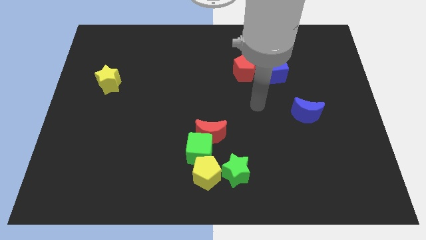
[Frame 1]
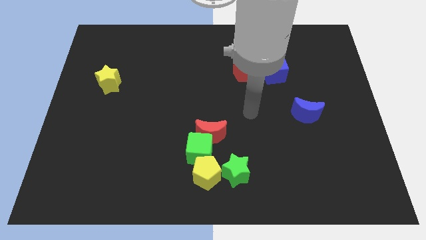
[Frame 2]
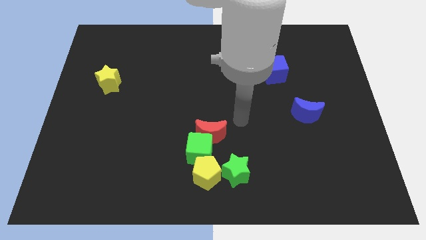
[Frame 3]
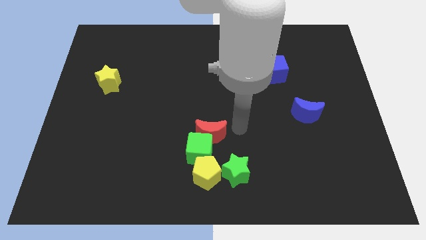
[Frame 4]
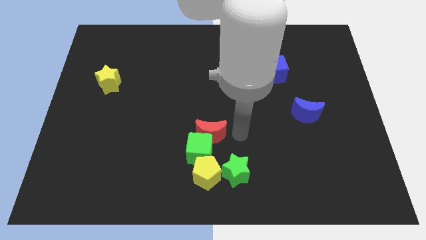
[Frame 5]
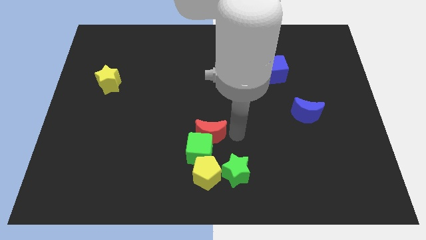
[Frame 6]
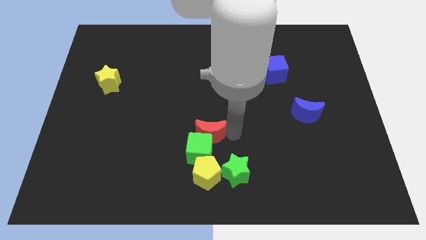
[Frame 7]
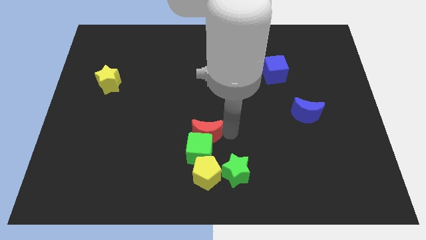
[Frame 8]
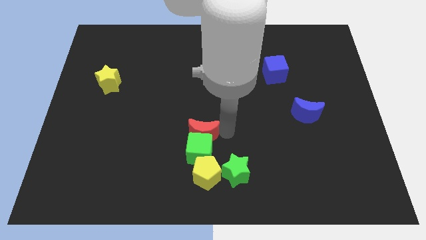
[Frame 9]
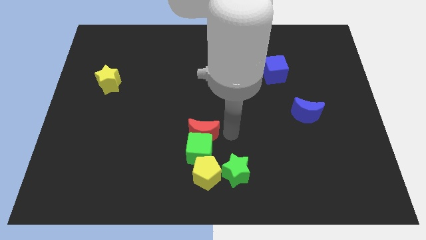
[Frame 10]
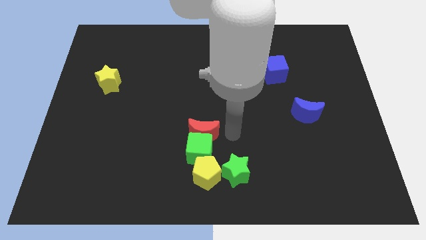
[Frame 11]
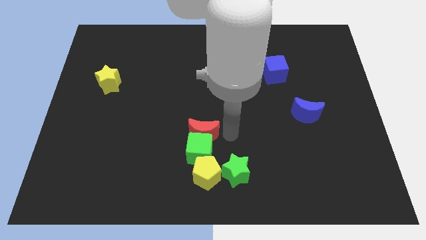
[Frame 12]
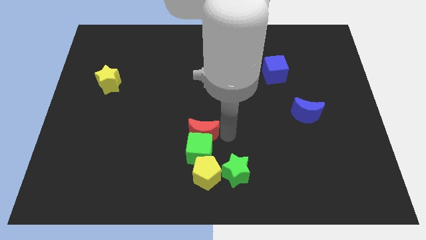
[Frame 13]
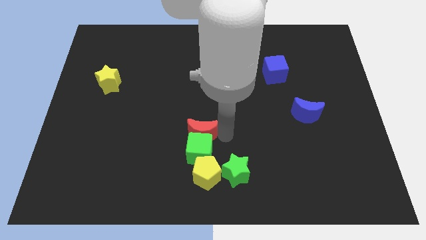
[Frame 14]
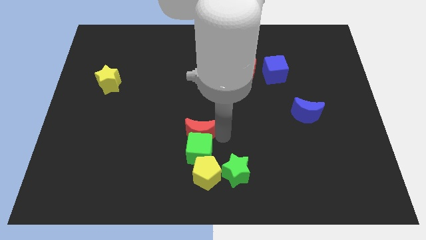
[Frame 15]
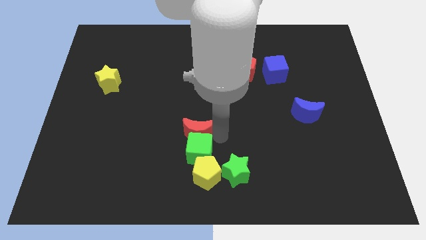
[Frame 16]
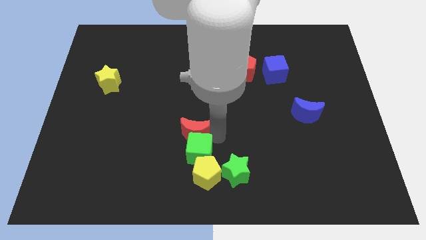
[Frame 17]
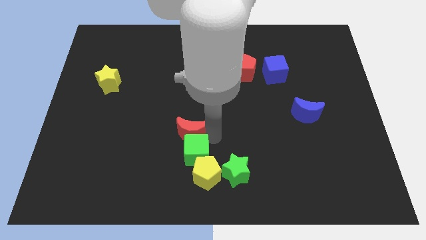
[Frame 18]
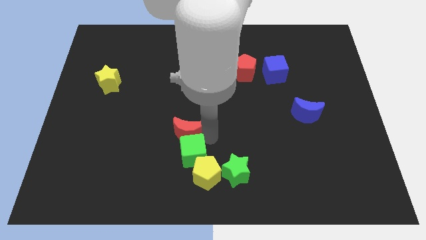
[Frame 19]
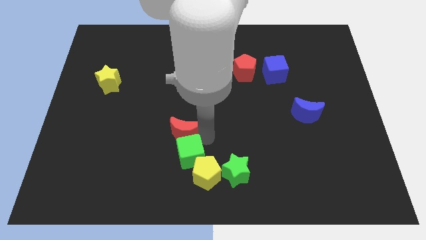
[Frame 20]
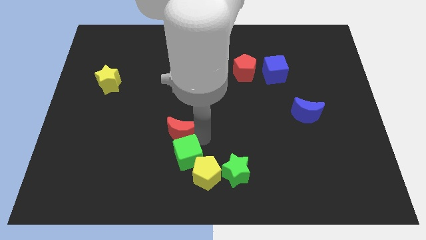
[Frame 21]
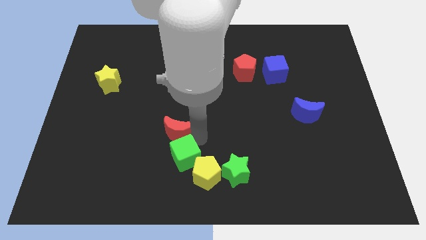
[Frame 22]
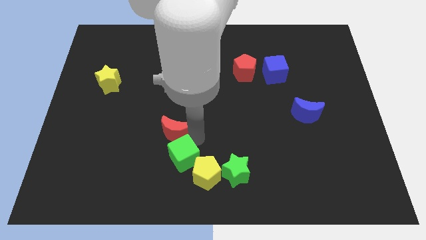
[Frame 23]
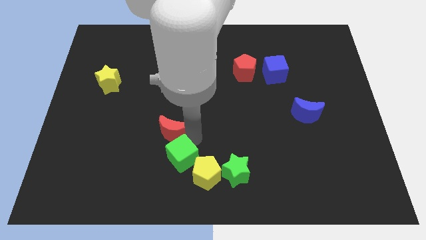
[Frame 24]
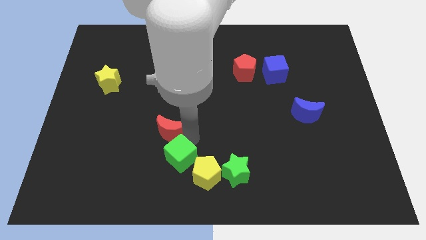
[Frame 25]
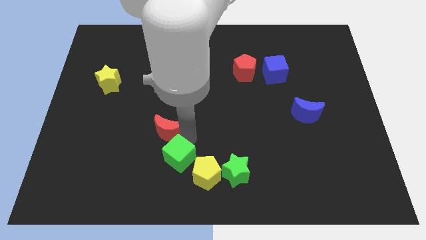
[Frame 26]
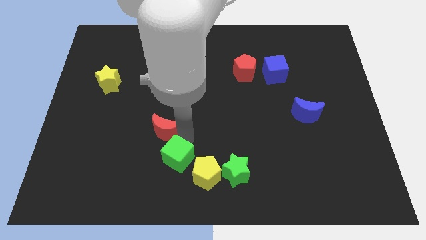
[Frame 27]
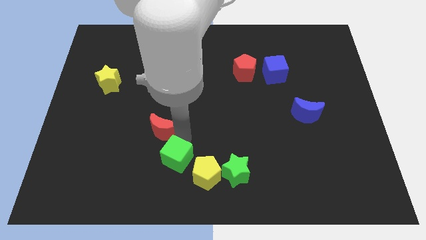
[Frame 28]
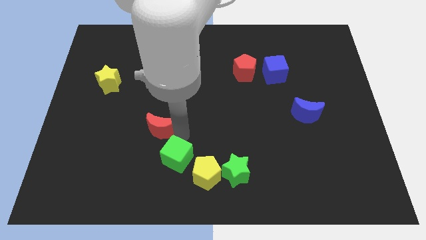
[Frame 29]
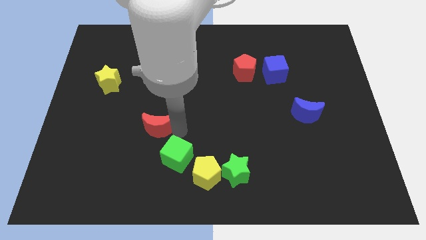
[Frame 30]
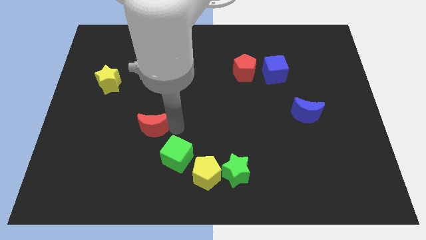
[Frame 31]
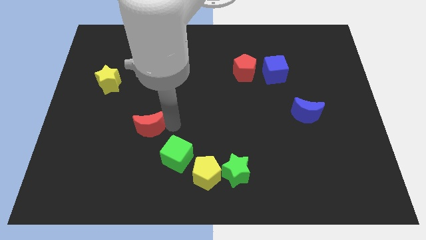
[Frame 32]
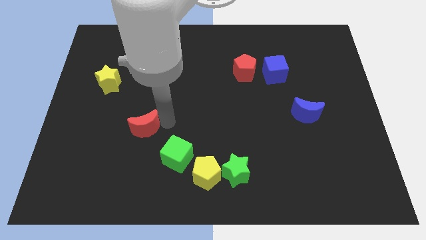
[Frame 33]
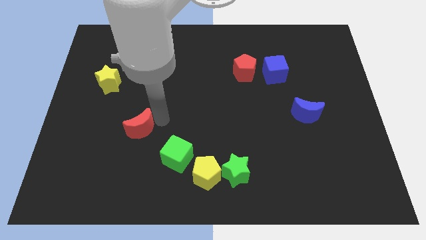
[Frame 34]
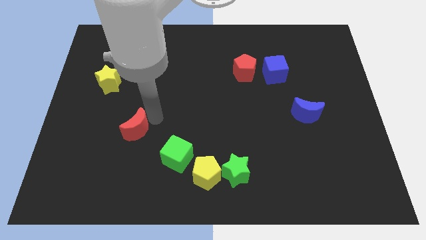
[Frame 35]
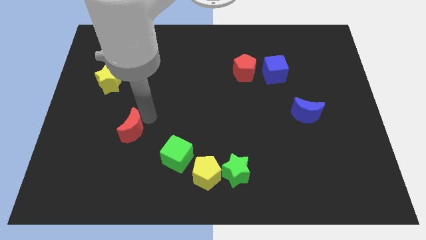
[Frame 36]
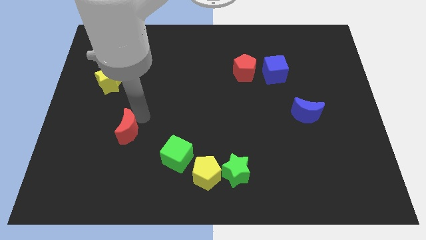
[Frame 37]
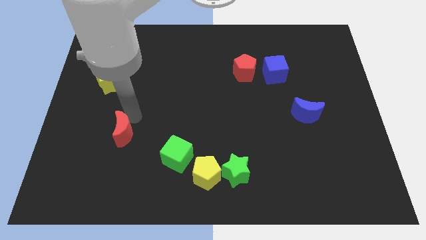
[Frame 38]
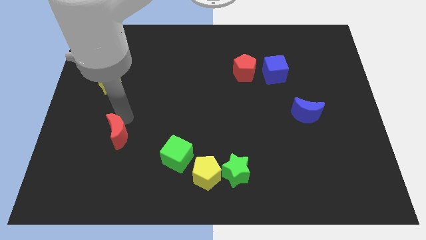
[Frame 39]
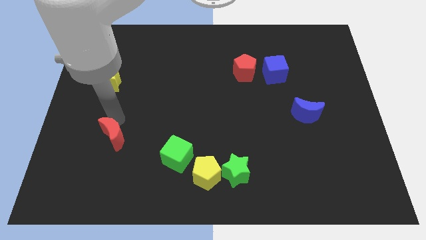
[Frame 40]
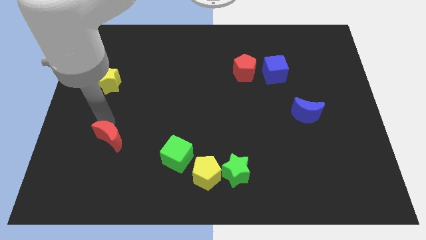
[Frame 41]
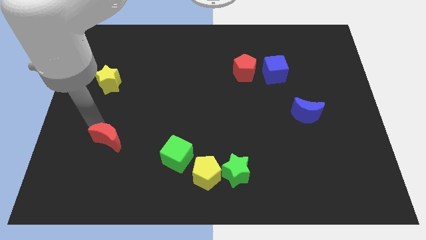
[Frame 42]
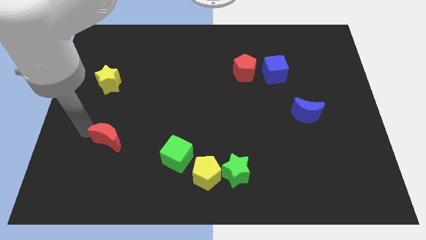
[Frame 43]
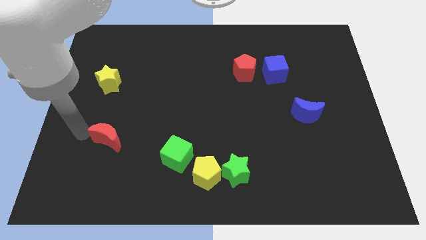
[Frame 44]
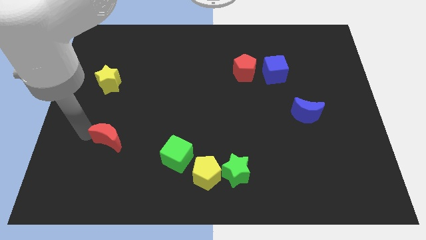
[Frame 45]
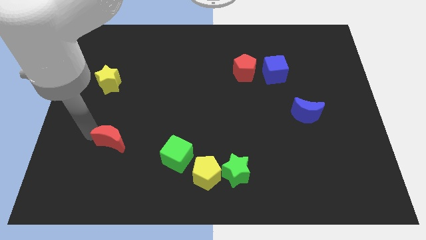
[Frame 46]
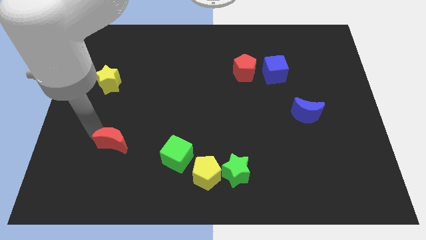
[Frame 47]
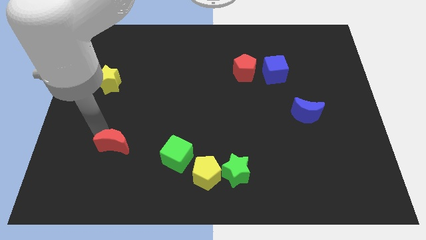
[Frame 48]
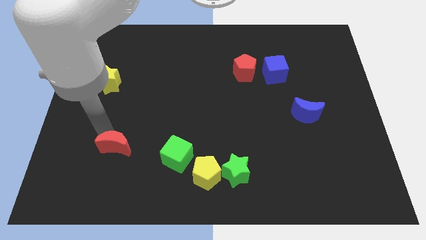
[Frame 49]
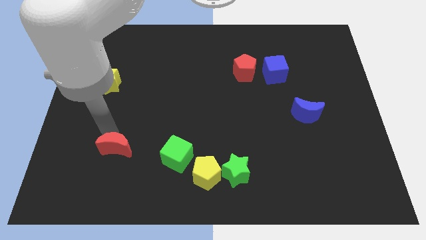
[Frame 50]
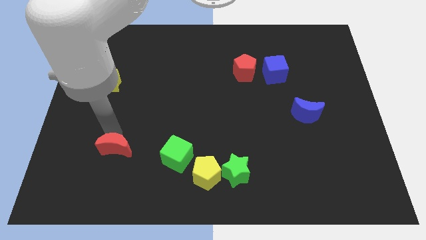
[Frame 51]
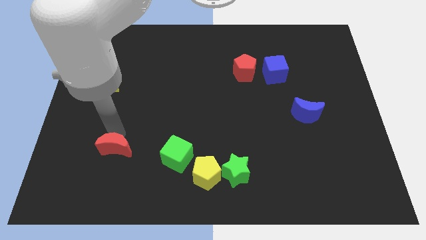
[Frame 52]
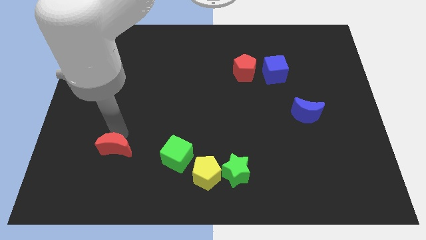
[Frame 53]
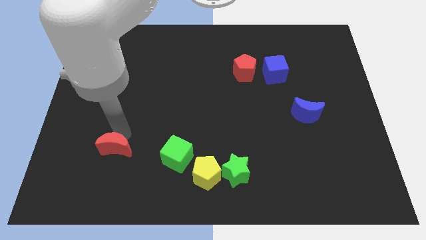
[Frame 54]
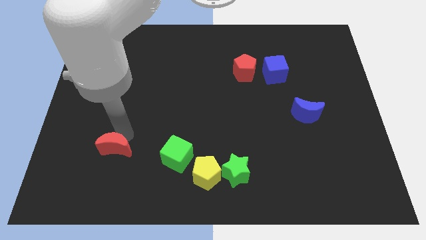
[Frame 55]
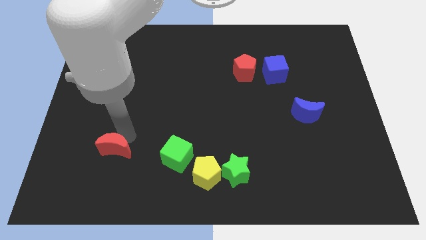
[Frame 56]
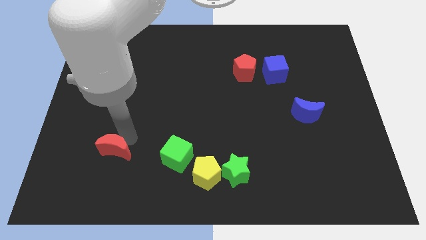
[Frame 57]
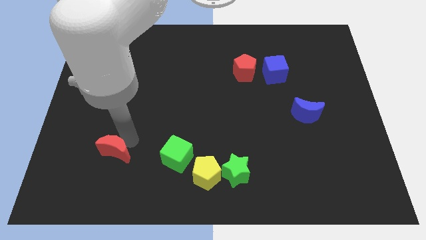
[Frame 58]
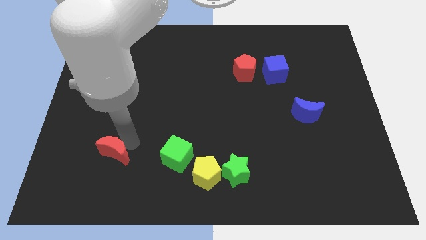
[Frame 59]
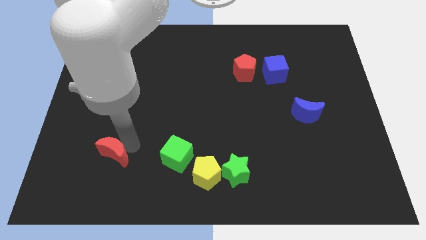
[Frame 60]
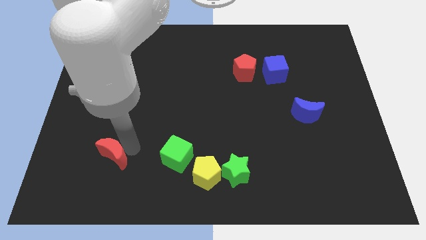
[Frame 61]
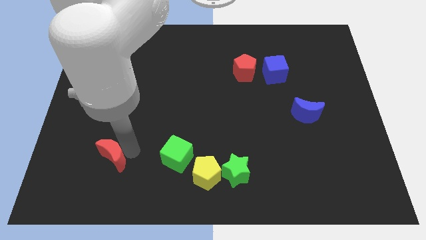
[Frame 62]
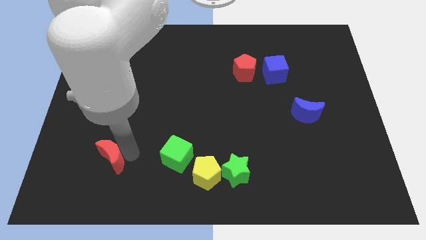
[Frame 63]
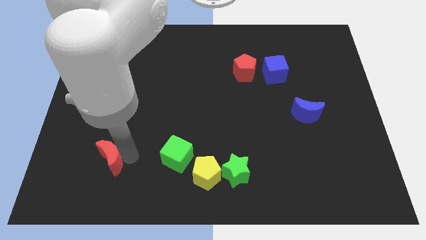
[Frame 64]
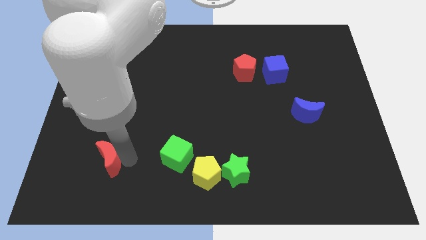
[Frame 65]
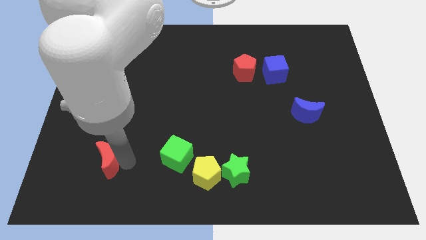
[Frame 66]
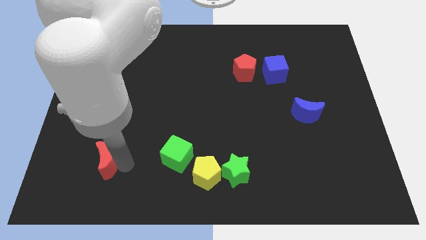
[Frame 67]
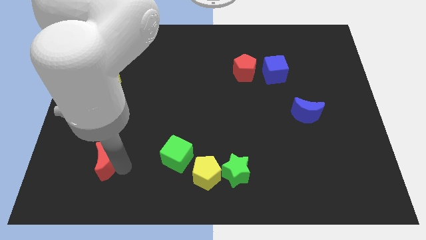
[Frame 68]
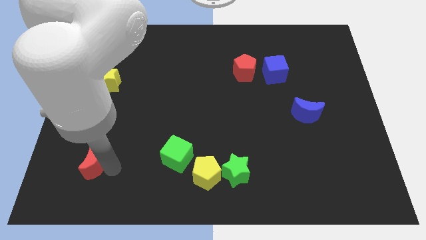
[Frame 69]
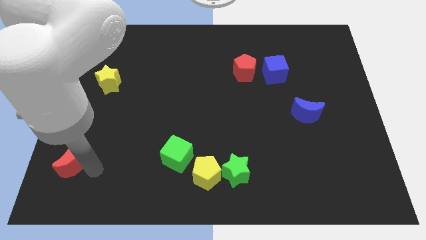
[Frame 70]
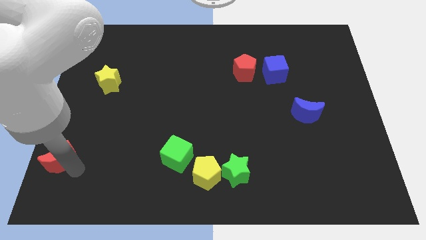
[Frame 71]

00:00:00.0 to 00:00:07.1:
slide the red moon to the bottom left
